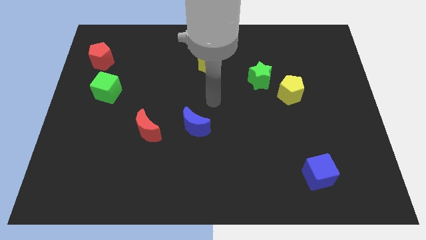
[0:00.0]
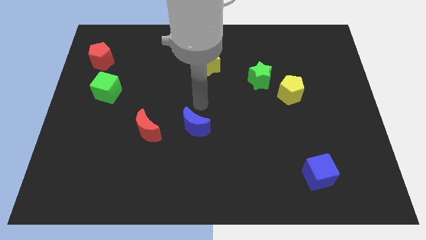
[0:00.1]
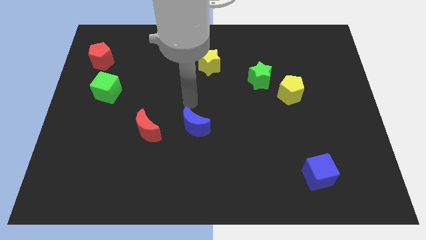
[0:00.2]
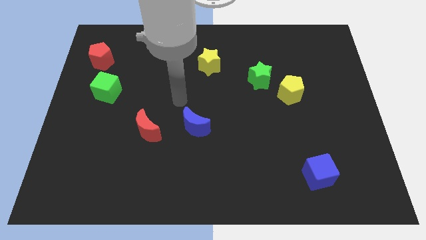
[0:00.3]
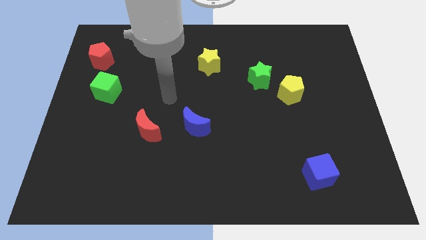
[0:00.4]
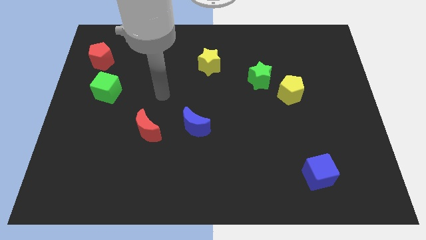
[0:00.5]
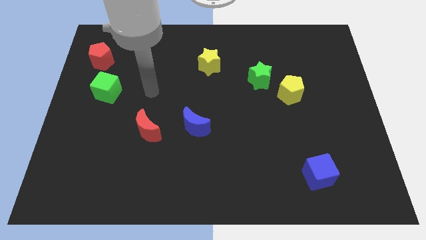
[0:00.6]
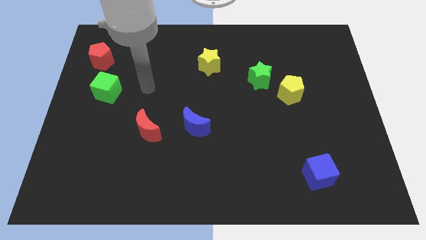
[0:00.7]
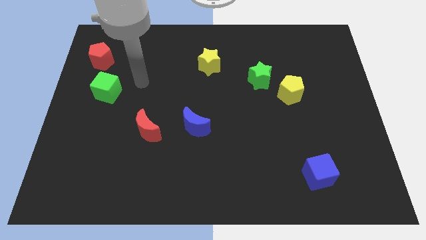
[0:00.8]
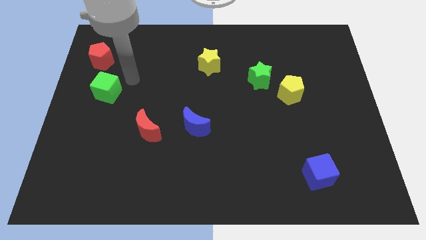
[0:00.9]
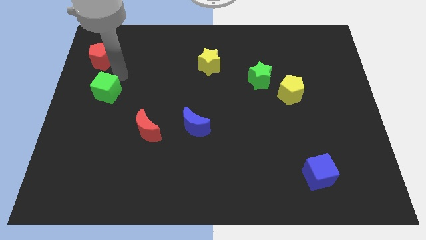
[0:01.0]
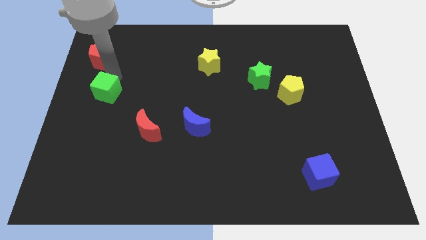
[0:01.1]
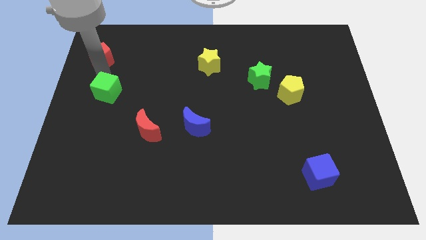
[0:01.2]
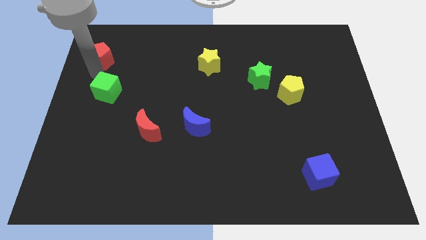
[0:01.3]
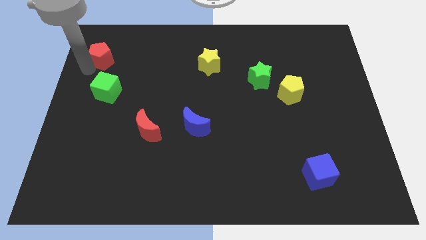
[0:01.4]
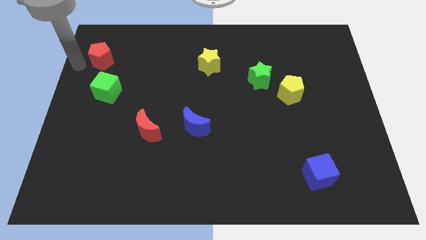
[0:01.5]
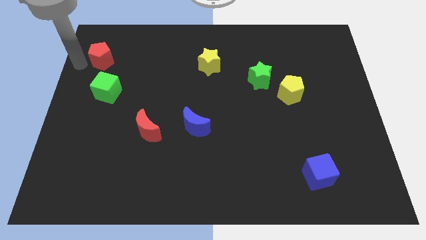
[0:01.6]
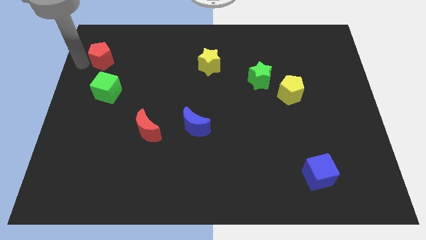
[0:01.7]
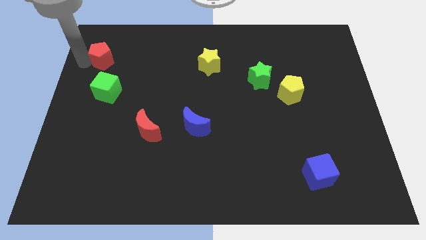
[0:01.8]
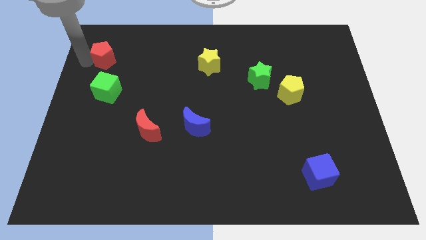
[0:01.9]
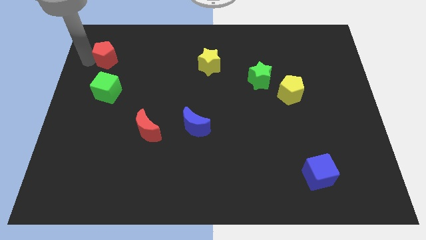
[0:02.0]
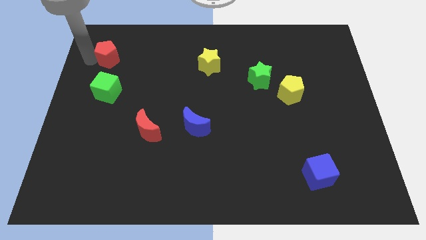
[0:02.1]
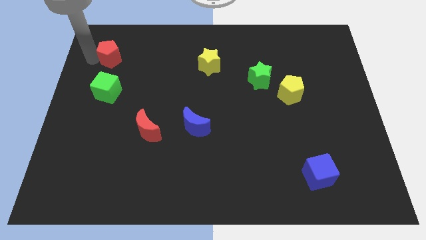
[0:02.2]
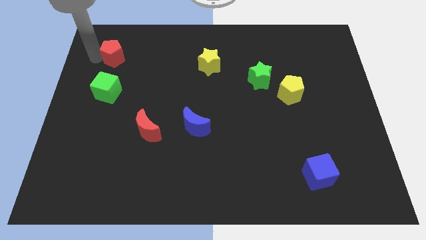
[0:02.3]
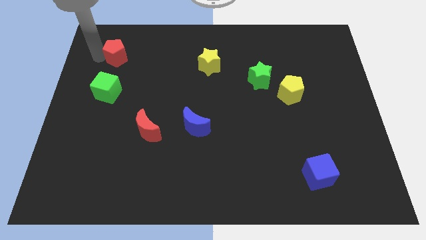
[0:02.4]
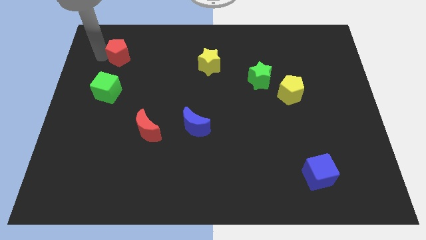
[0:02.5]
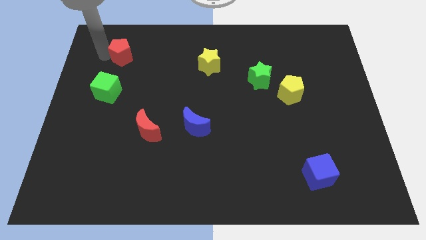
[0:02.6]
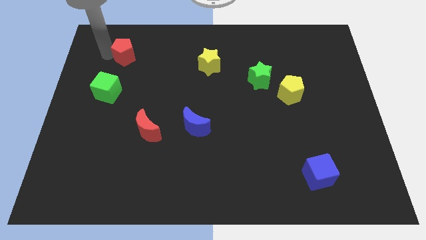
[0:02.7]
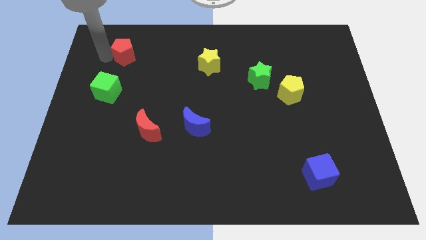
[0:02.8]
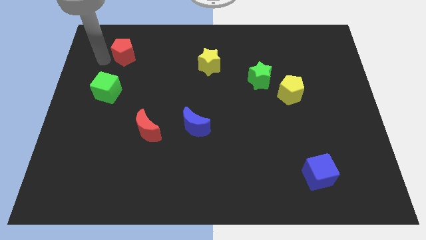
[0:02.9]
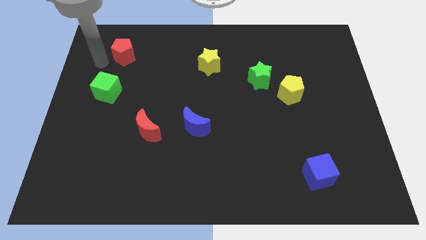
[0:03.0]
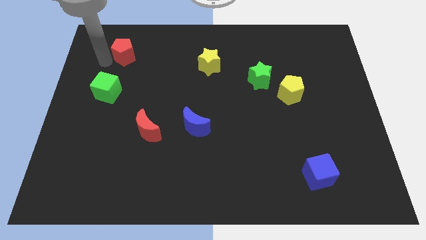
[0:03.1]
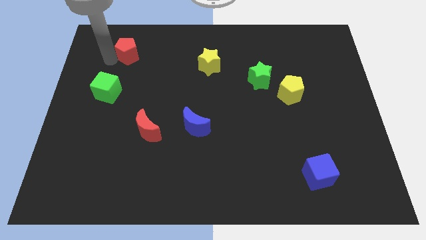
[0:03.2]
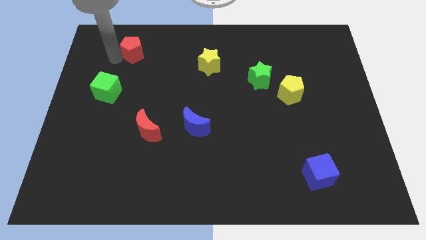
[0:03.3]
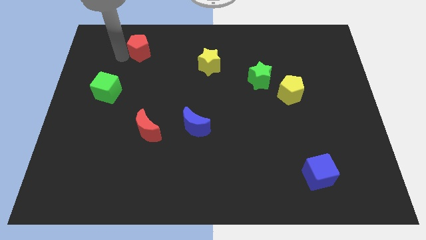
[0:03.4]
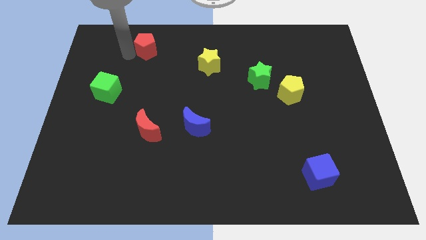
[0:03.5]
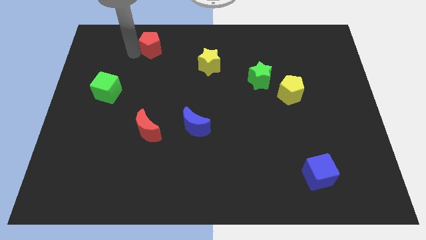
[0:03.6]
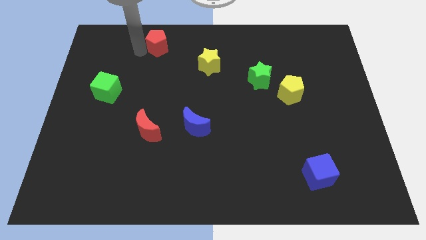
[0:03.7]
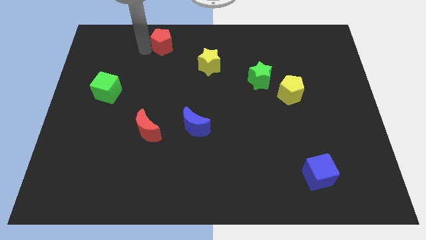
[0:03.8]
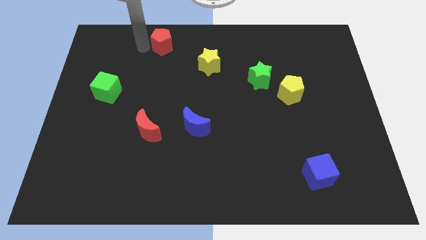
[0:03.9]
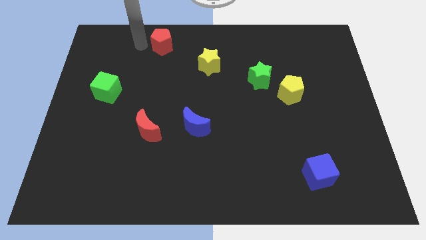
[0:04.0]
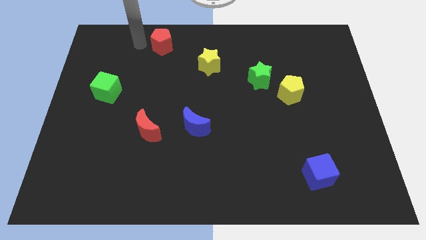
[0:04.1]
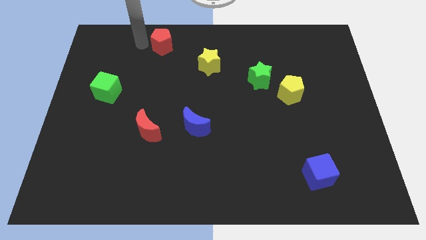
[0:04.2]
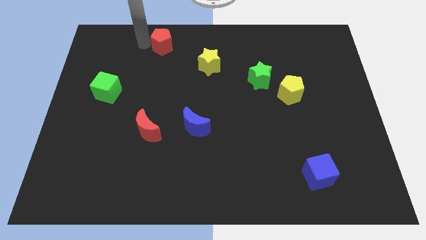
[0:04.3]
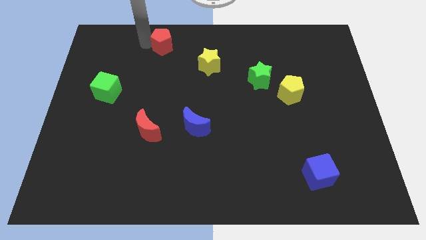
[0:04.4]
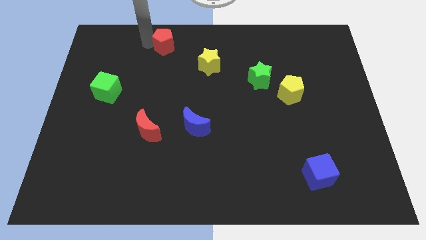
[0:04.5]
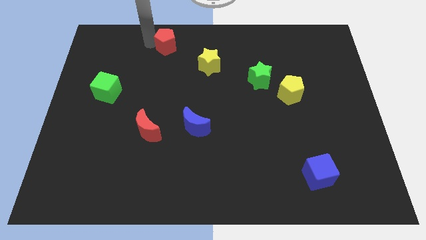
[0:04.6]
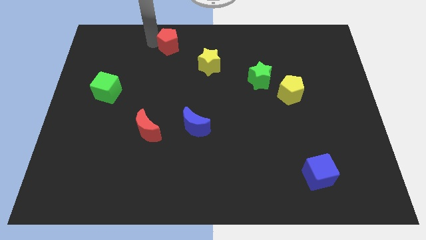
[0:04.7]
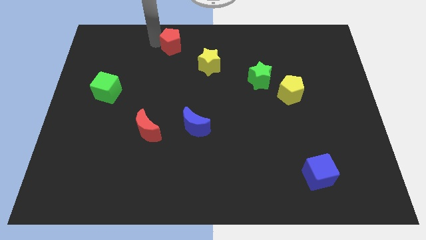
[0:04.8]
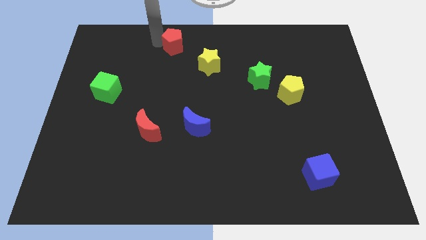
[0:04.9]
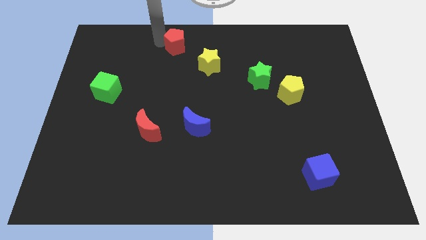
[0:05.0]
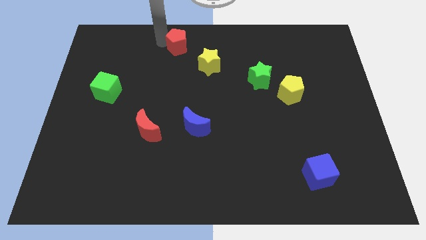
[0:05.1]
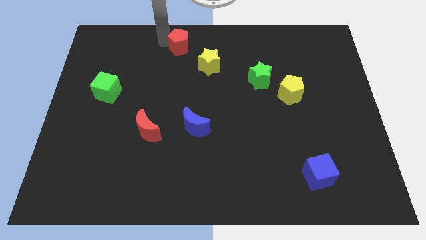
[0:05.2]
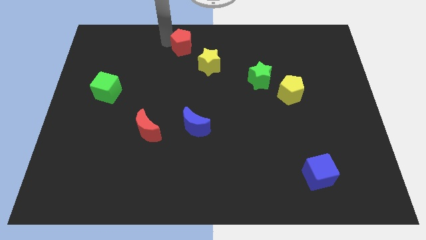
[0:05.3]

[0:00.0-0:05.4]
push the red pentagon right

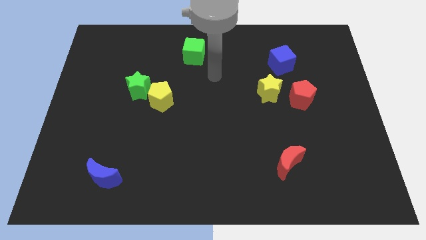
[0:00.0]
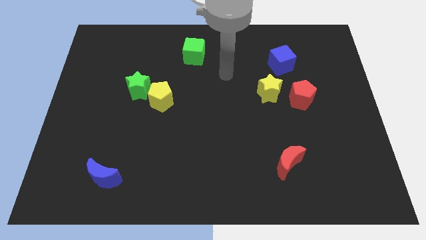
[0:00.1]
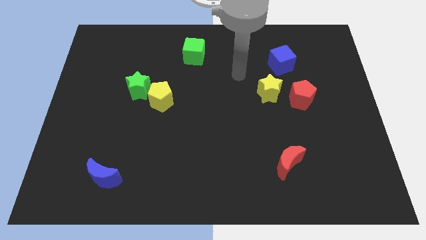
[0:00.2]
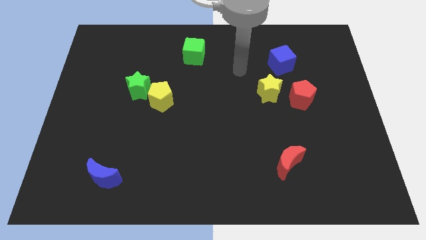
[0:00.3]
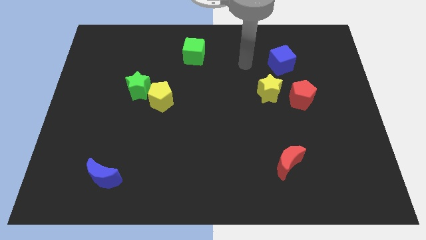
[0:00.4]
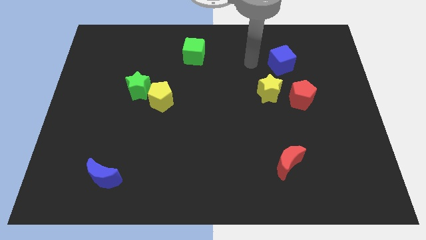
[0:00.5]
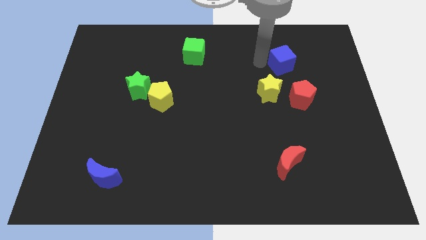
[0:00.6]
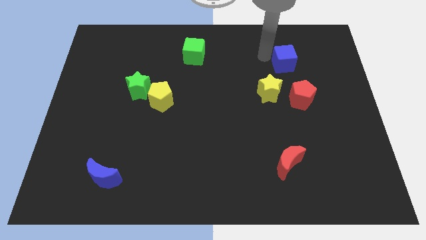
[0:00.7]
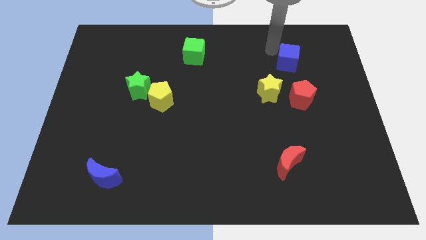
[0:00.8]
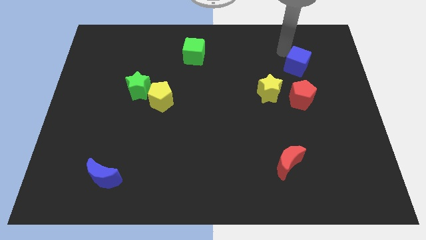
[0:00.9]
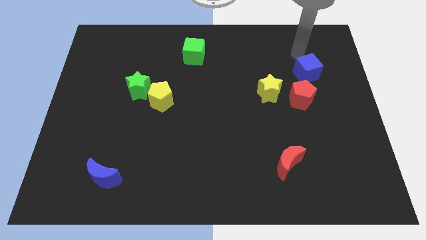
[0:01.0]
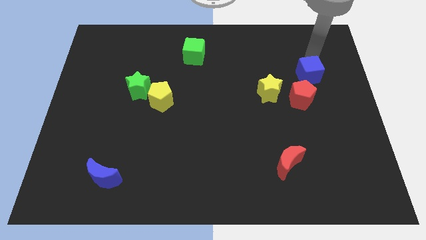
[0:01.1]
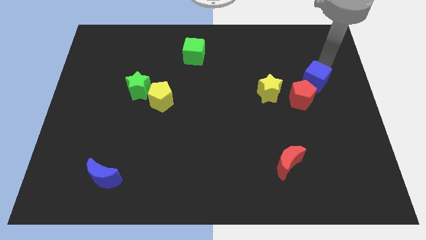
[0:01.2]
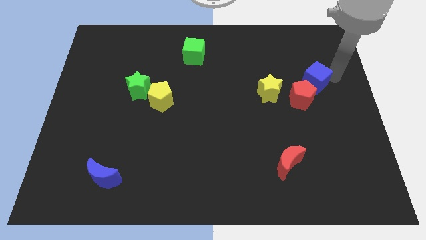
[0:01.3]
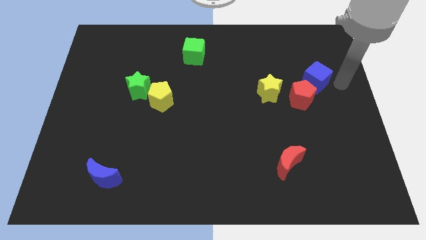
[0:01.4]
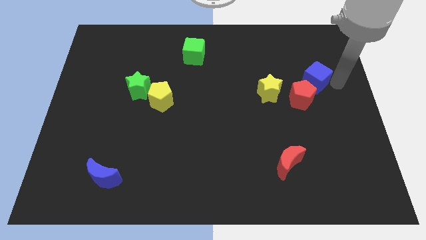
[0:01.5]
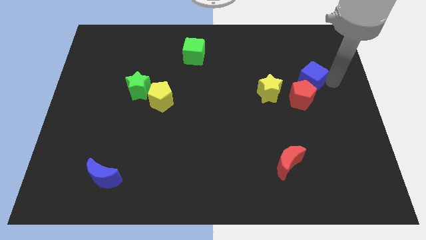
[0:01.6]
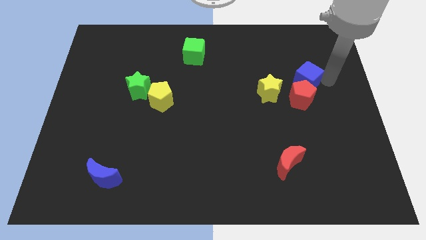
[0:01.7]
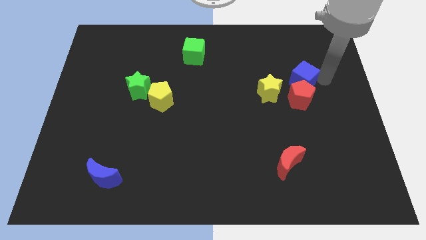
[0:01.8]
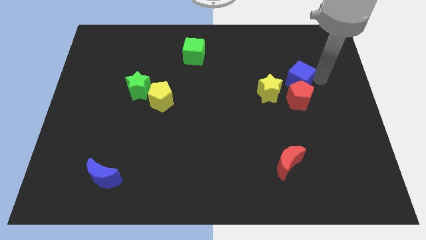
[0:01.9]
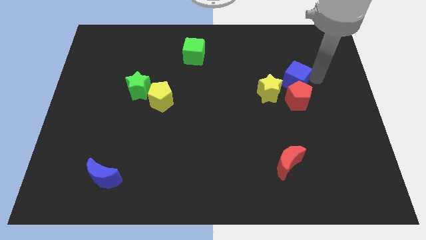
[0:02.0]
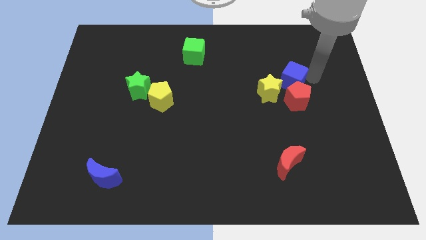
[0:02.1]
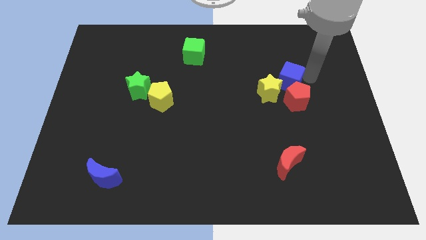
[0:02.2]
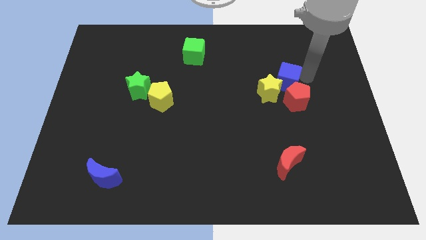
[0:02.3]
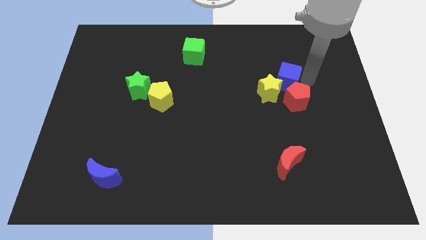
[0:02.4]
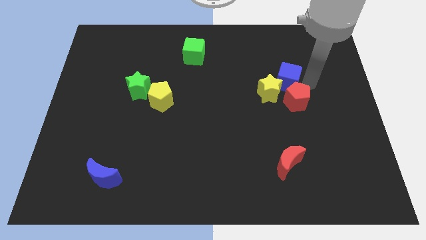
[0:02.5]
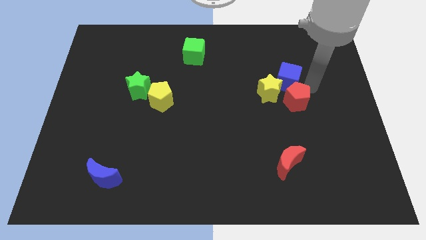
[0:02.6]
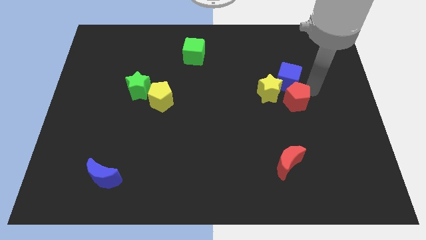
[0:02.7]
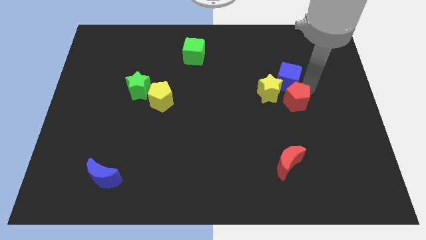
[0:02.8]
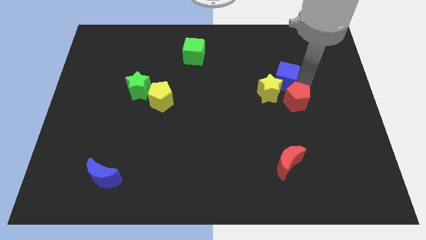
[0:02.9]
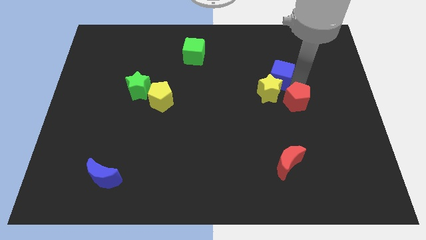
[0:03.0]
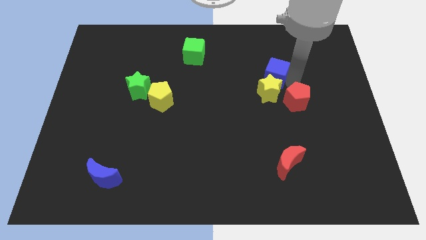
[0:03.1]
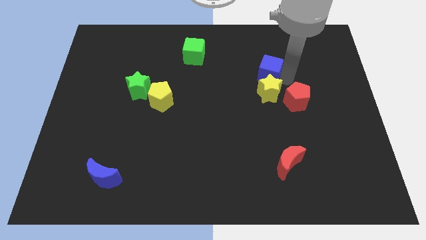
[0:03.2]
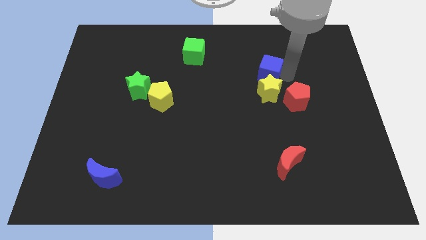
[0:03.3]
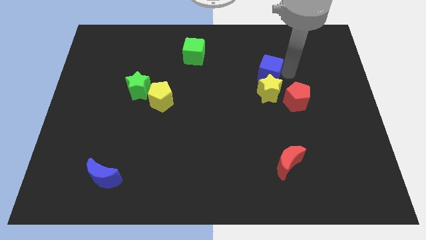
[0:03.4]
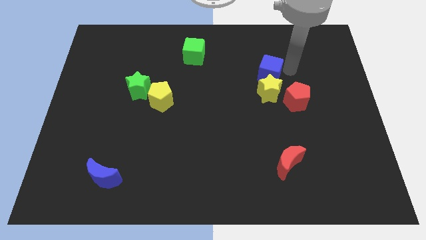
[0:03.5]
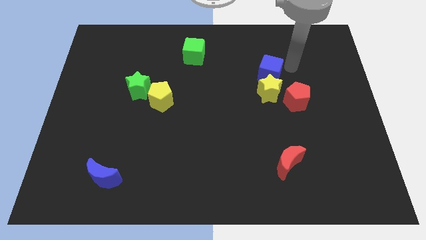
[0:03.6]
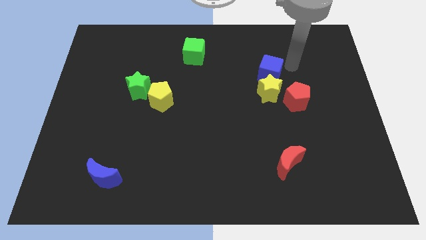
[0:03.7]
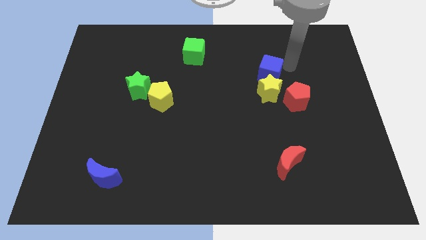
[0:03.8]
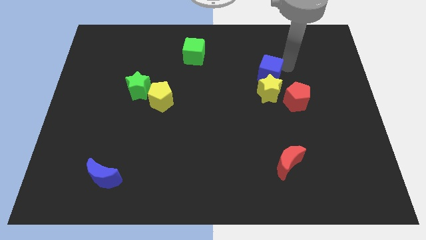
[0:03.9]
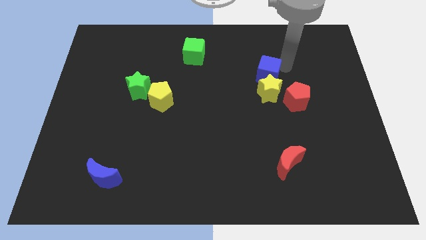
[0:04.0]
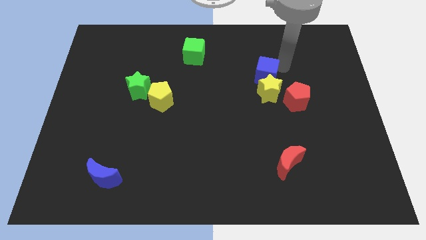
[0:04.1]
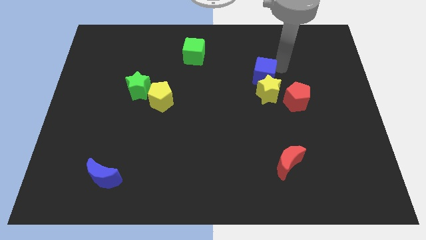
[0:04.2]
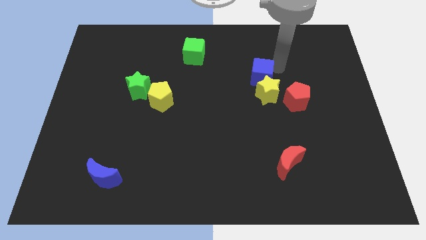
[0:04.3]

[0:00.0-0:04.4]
move the blue cube a little bit downwards and left diagonally
